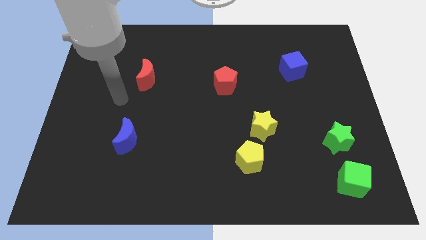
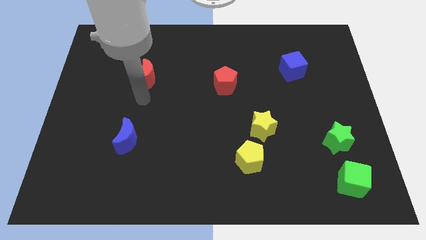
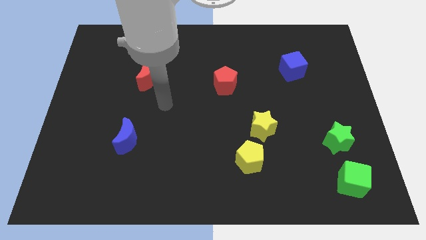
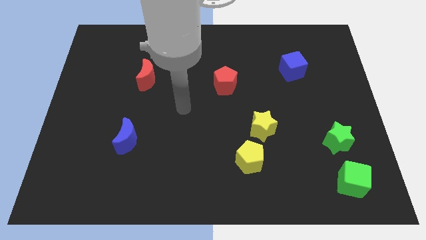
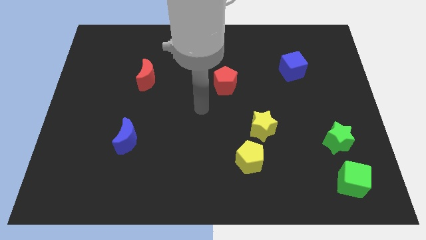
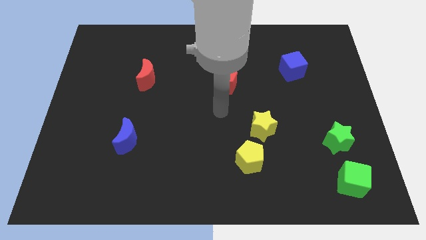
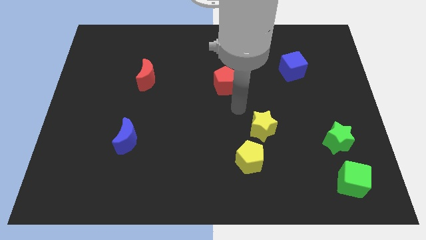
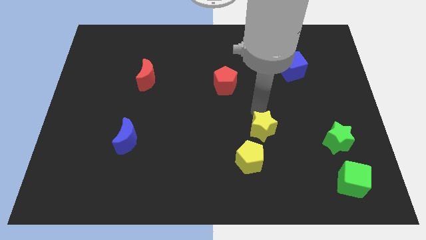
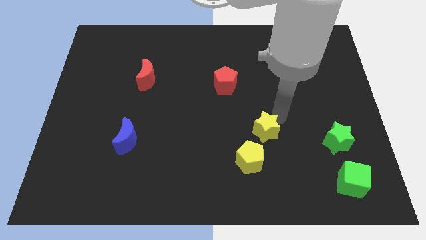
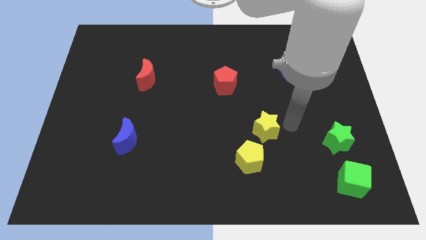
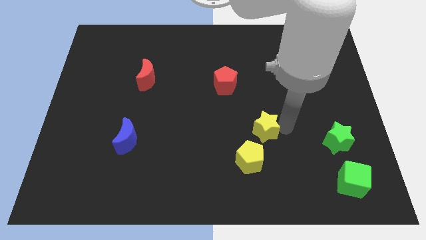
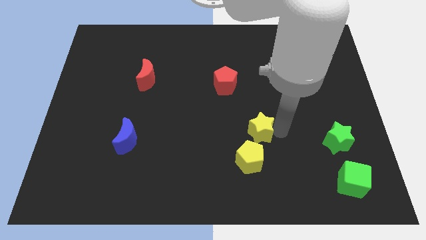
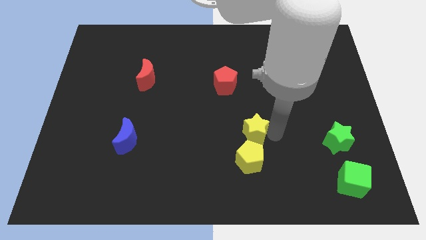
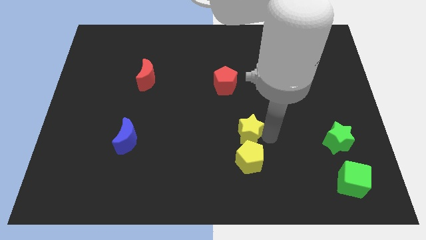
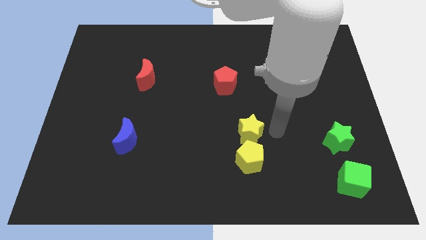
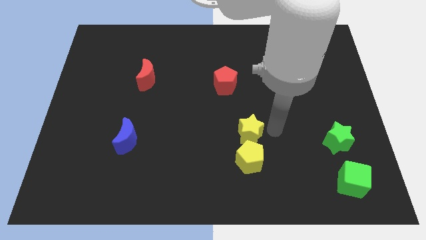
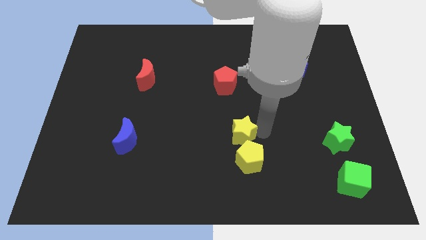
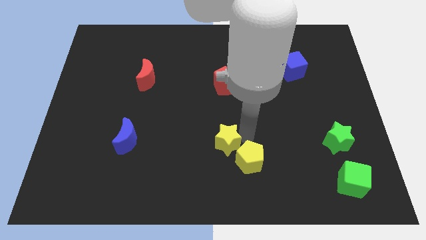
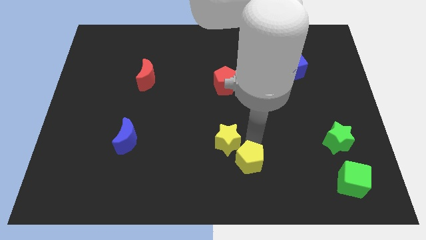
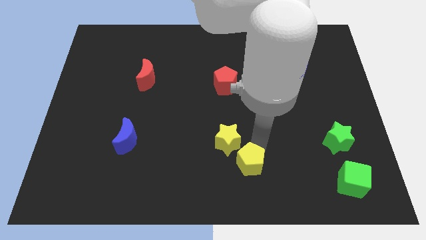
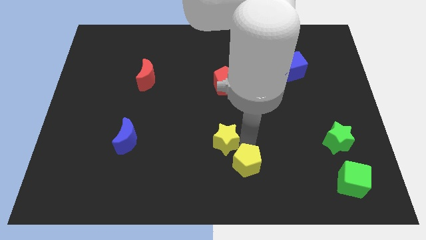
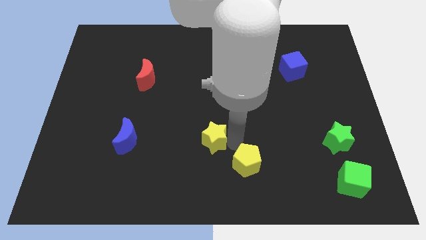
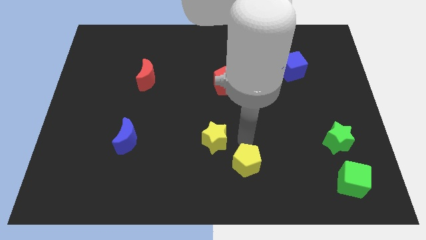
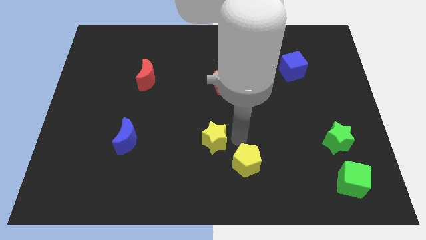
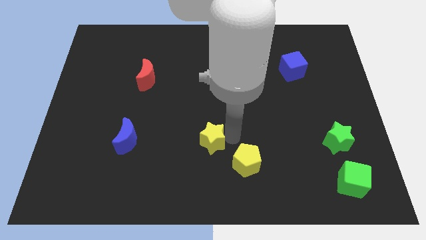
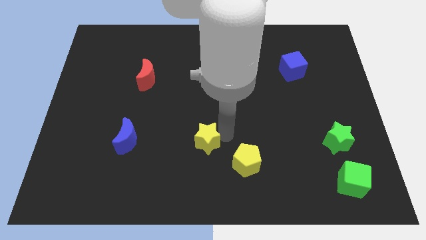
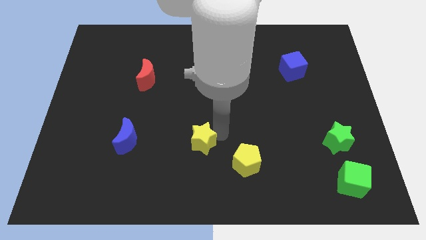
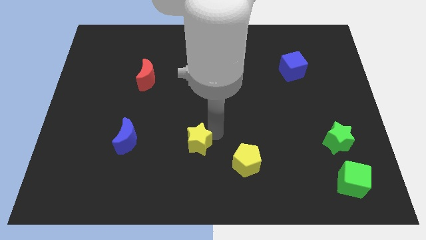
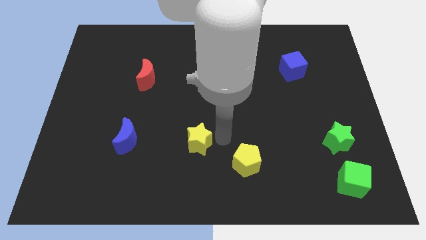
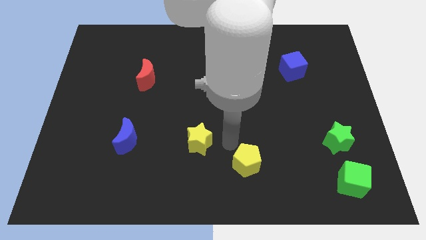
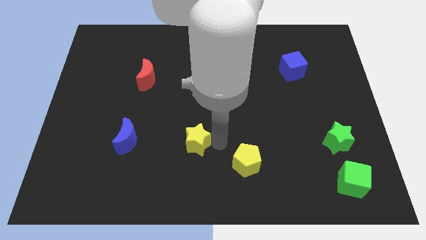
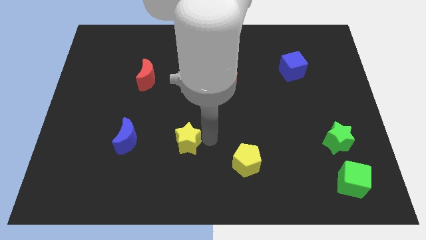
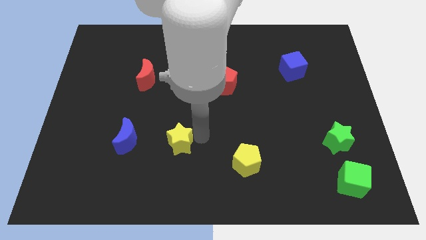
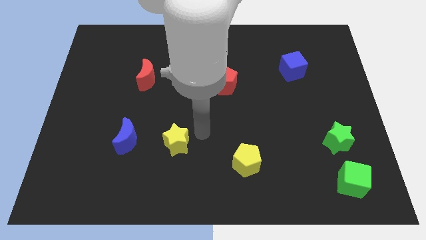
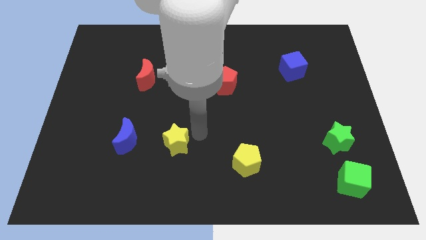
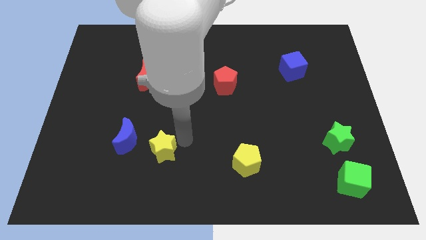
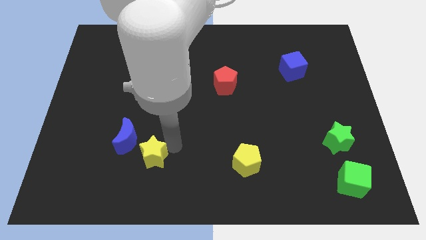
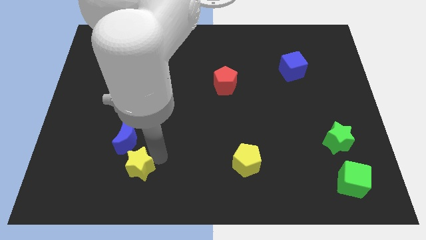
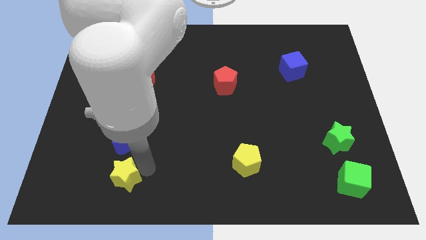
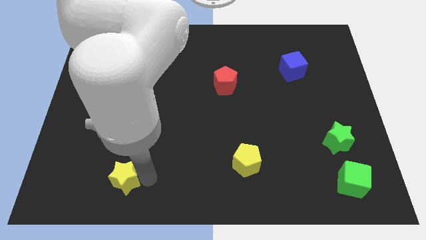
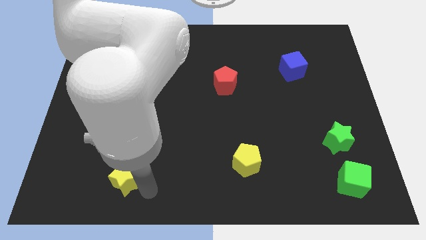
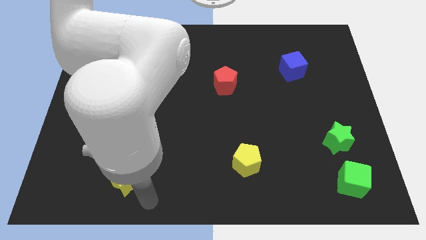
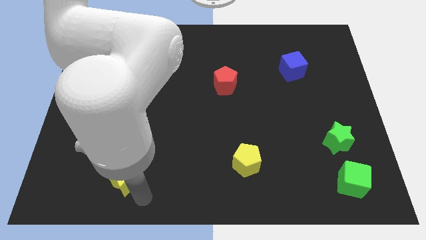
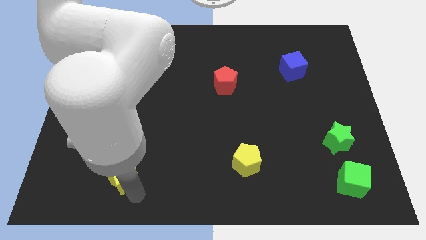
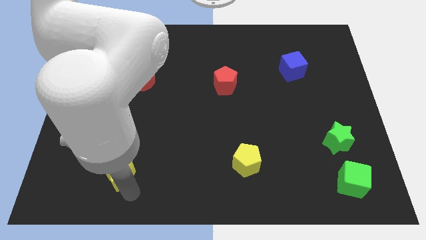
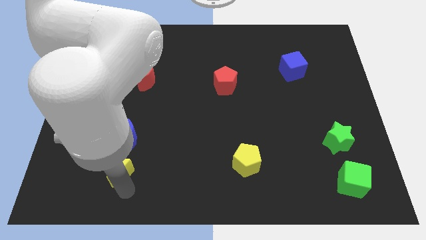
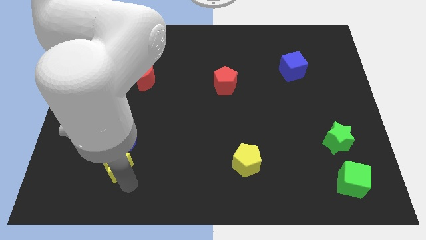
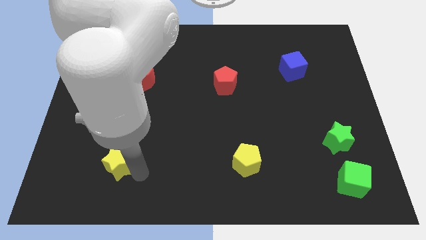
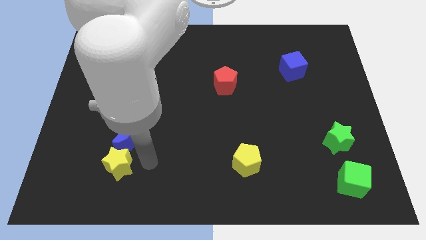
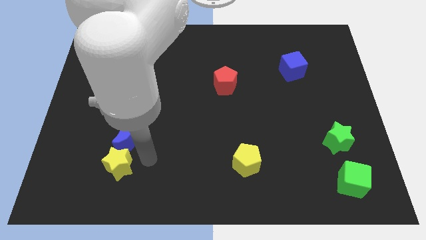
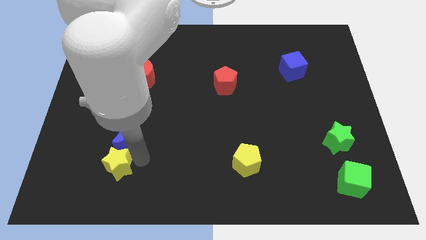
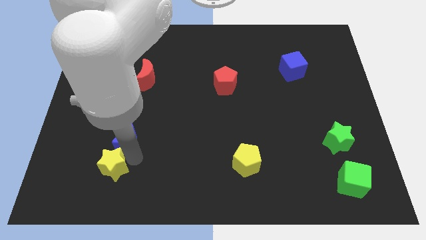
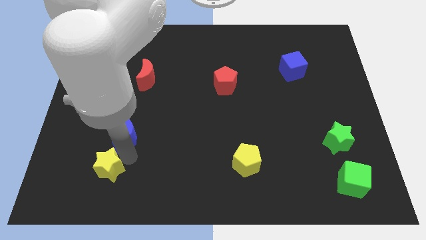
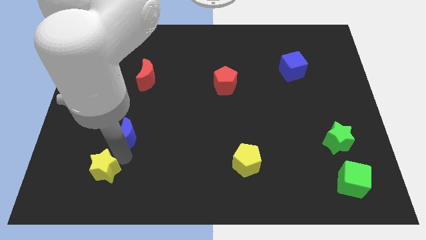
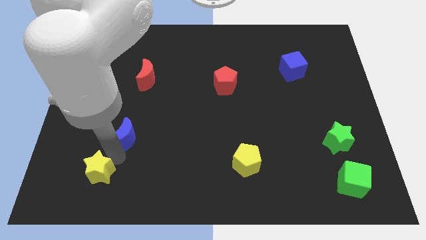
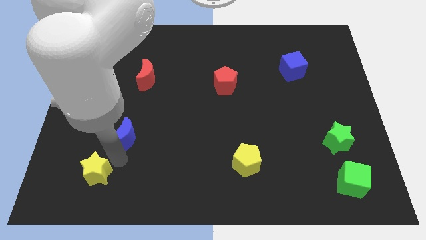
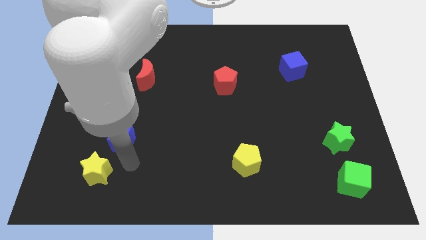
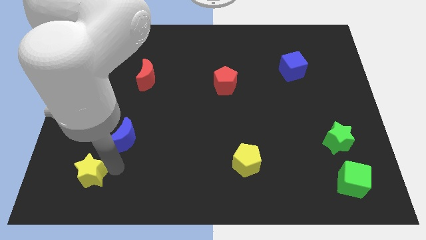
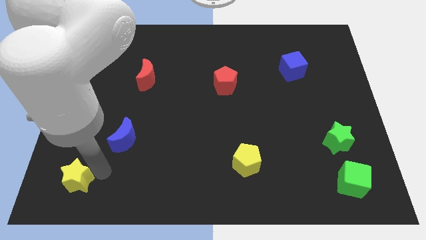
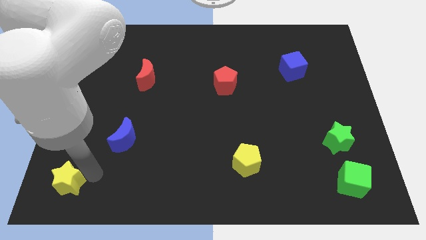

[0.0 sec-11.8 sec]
push the yellow star to the bottom left corner
